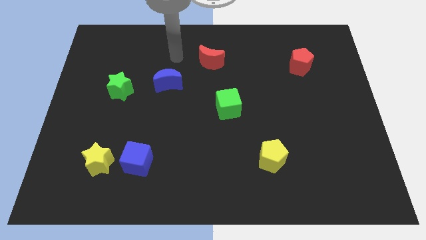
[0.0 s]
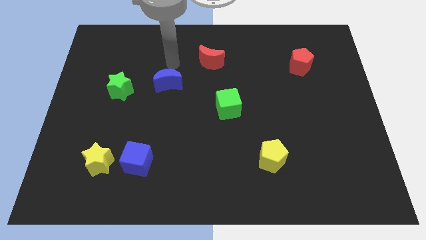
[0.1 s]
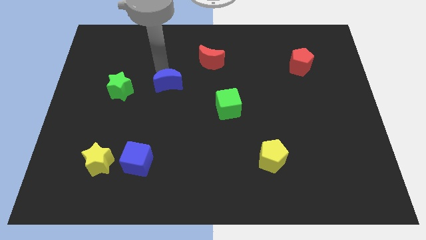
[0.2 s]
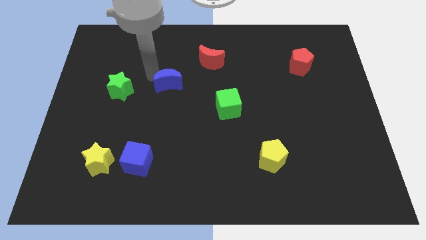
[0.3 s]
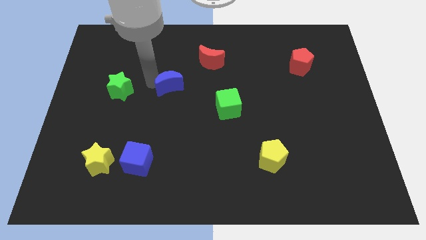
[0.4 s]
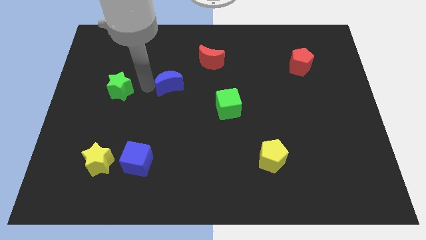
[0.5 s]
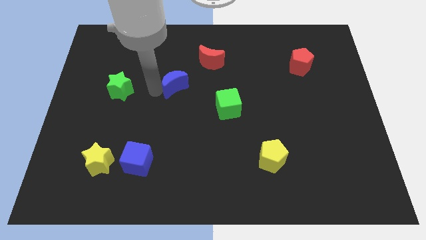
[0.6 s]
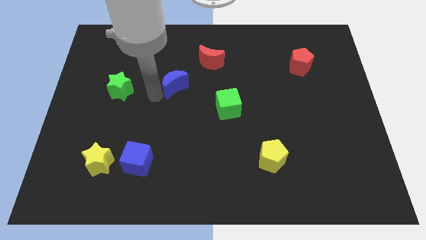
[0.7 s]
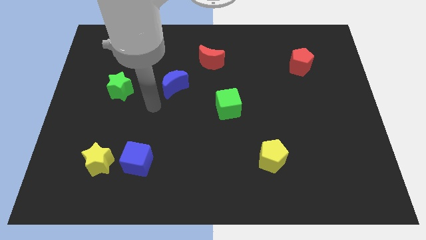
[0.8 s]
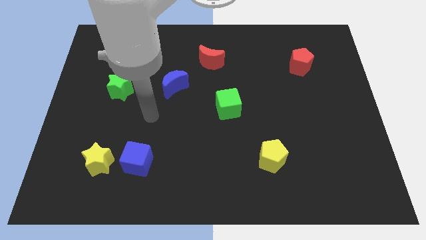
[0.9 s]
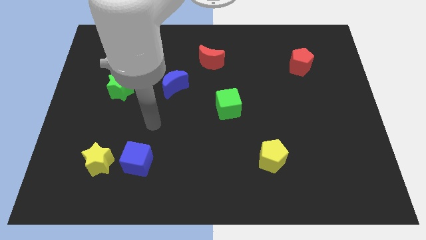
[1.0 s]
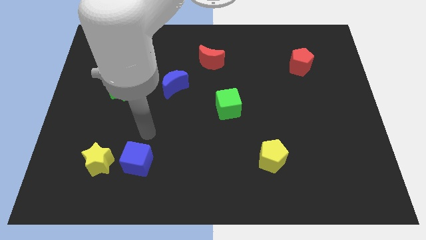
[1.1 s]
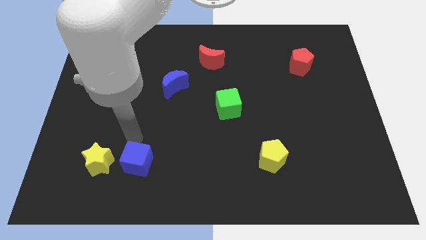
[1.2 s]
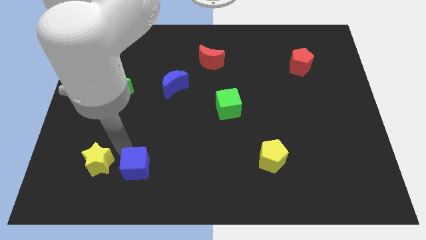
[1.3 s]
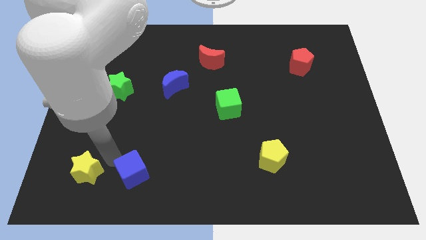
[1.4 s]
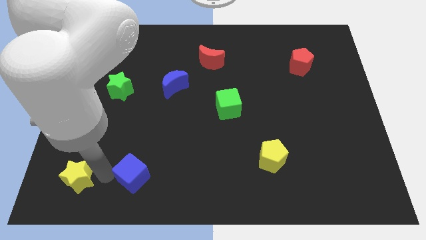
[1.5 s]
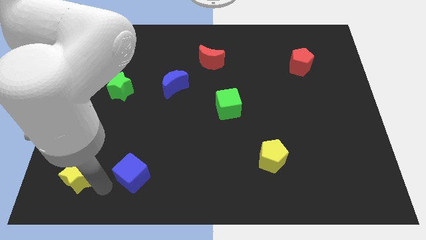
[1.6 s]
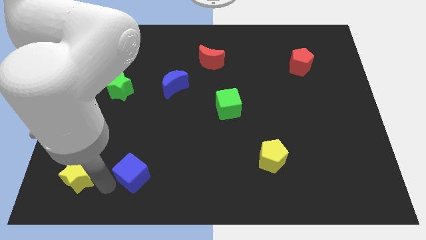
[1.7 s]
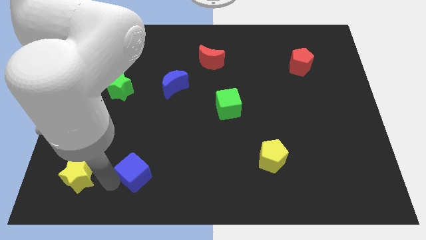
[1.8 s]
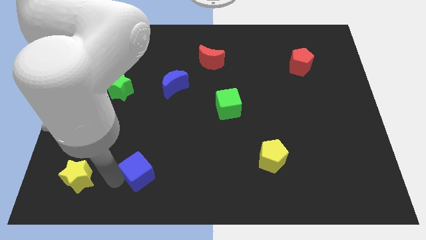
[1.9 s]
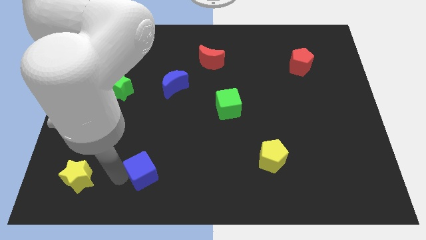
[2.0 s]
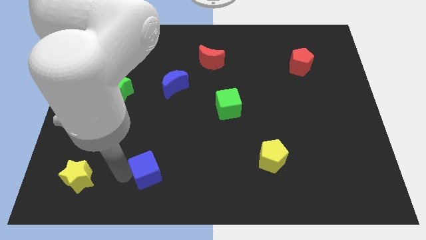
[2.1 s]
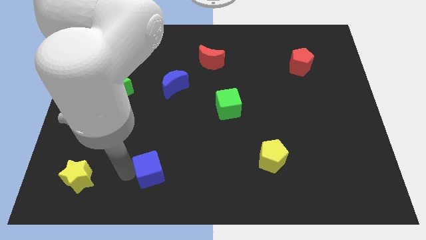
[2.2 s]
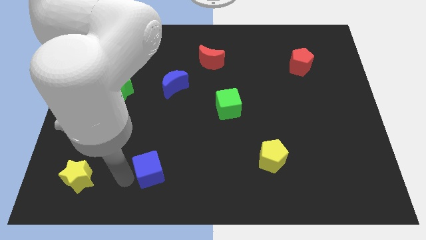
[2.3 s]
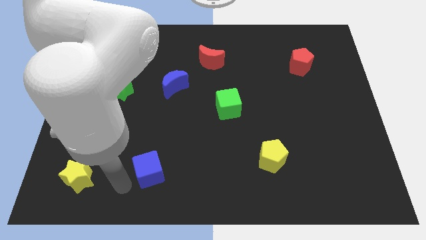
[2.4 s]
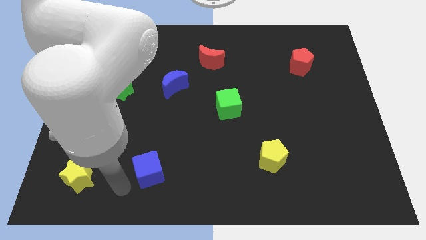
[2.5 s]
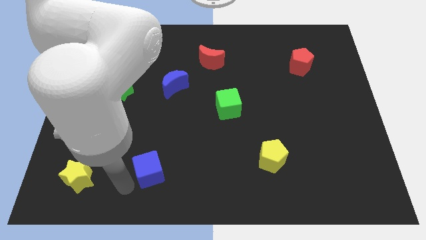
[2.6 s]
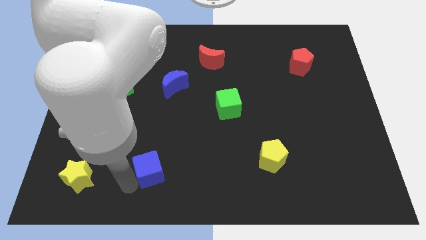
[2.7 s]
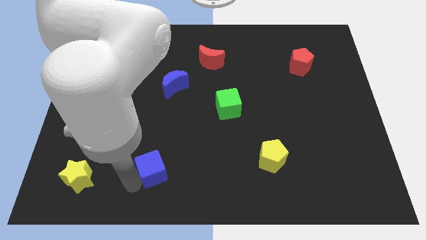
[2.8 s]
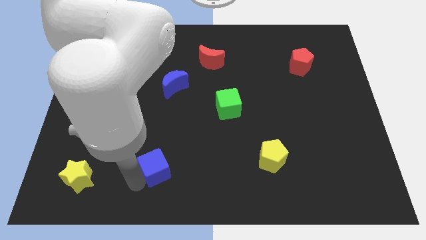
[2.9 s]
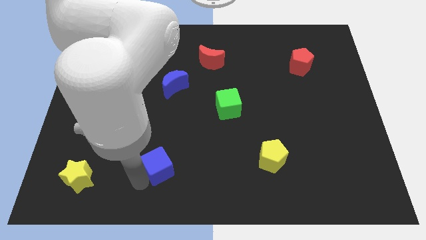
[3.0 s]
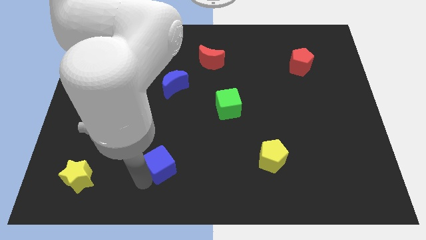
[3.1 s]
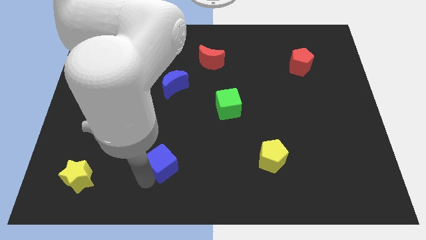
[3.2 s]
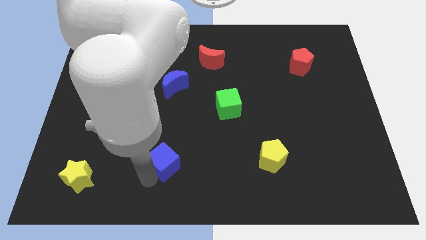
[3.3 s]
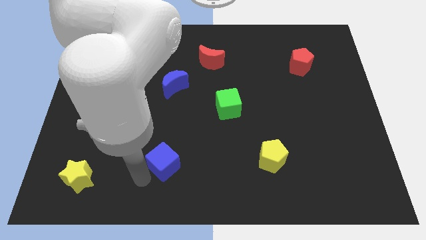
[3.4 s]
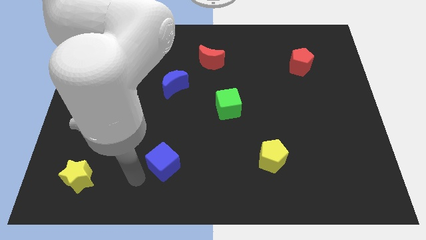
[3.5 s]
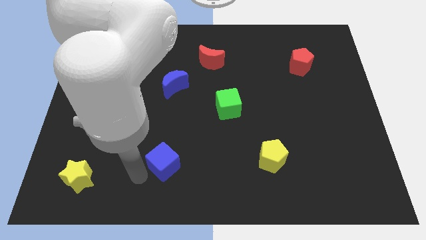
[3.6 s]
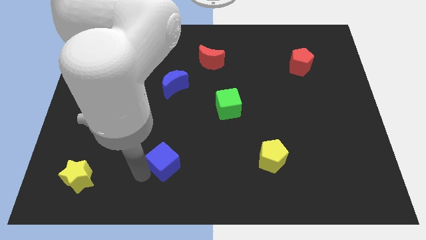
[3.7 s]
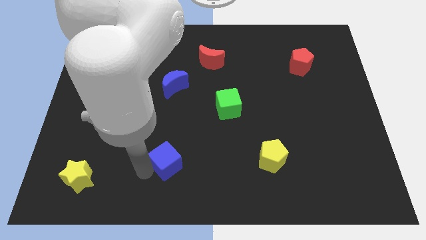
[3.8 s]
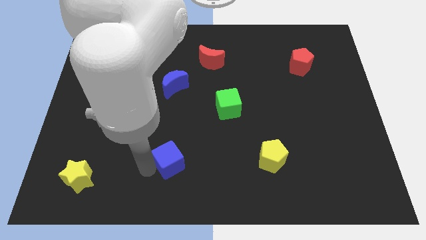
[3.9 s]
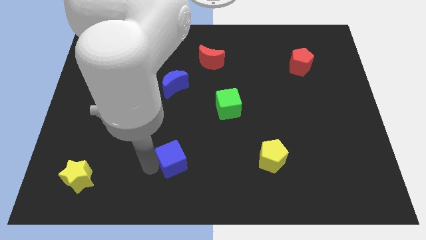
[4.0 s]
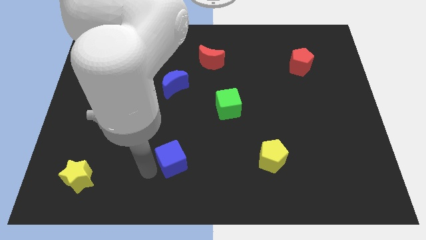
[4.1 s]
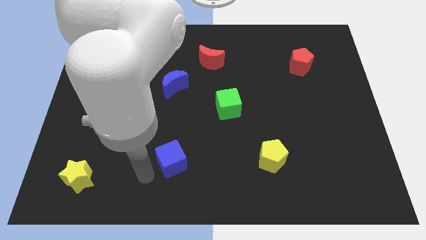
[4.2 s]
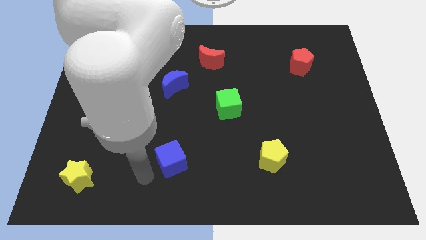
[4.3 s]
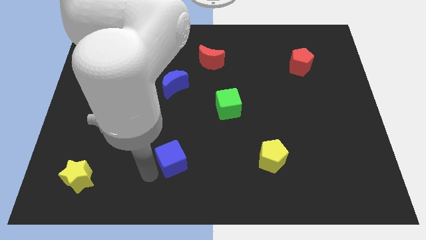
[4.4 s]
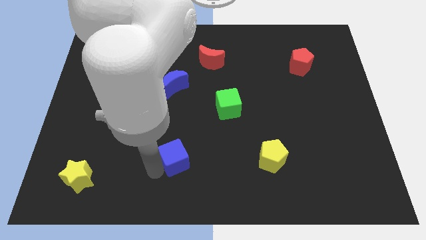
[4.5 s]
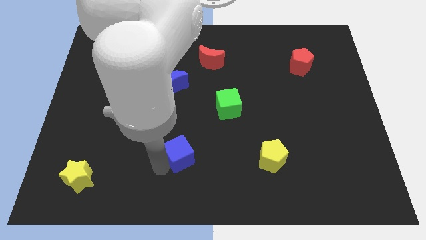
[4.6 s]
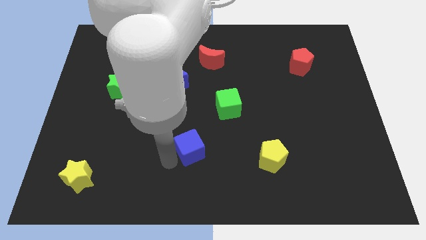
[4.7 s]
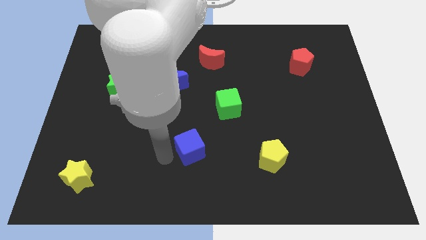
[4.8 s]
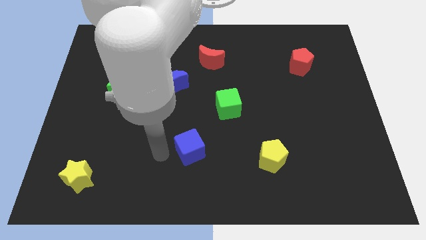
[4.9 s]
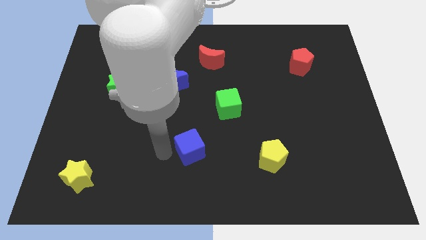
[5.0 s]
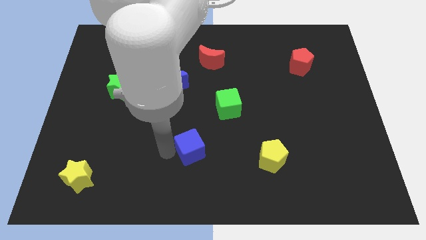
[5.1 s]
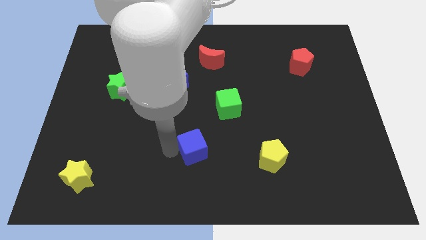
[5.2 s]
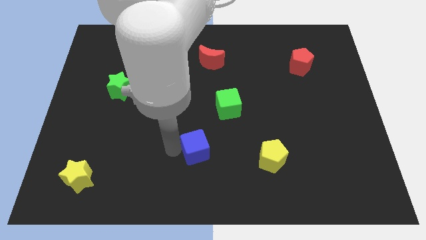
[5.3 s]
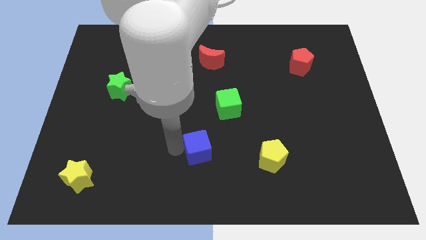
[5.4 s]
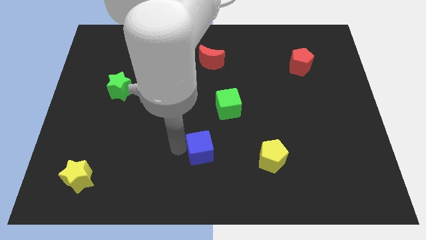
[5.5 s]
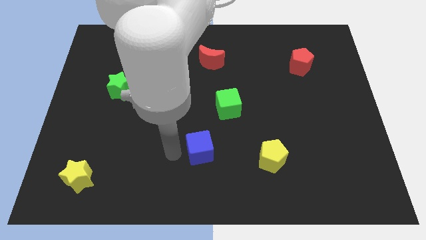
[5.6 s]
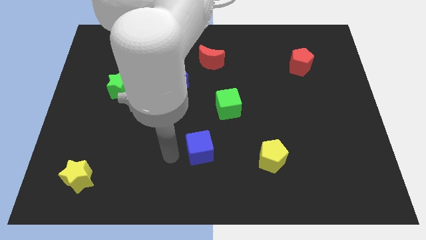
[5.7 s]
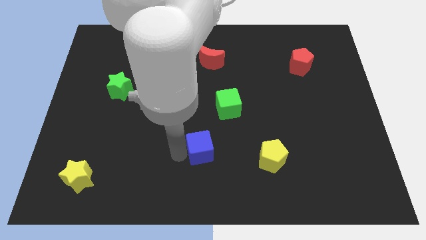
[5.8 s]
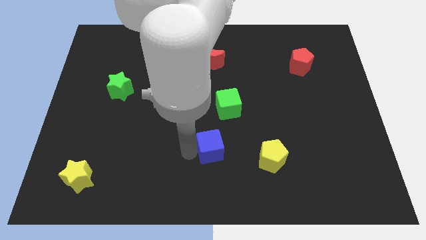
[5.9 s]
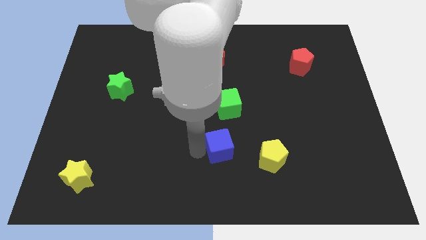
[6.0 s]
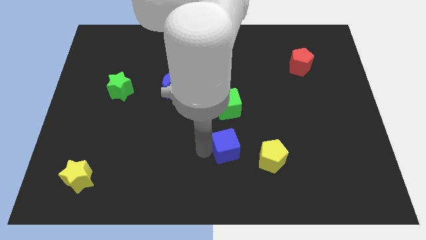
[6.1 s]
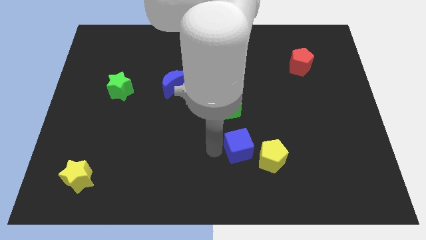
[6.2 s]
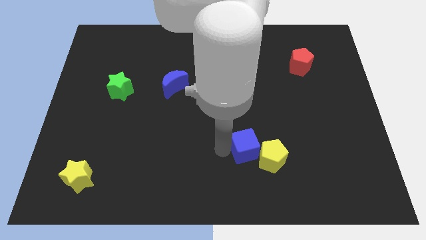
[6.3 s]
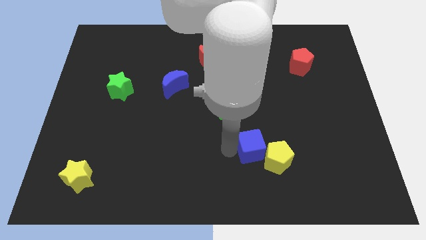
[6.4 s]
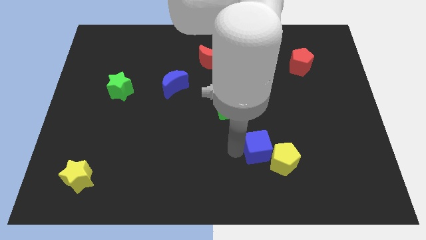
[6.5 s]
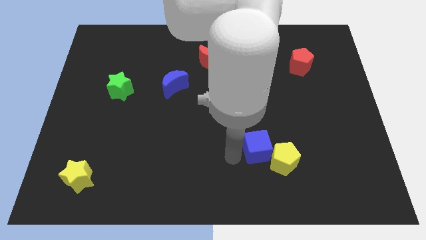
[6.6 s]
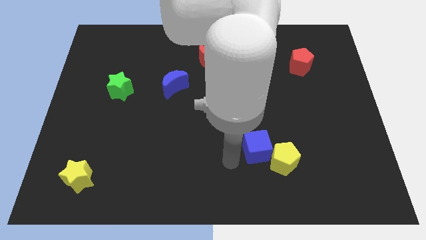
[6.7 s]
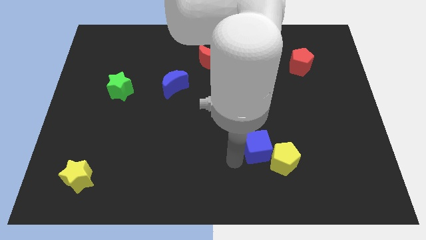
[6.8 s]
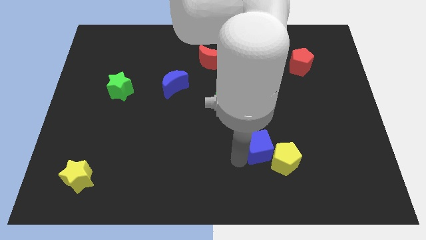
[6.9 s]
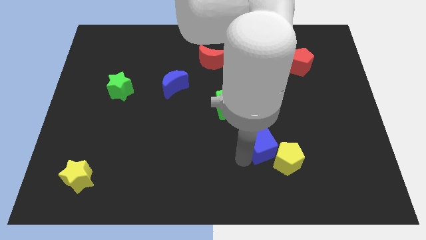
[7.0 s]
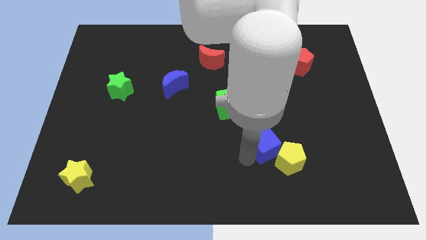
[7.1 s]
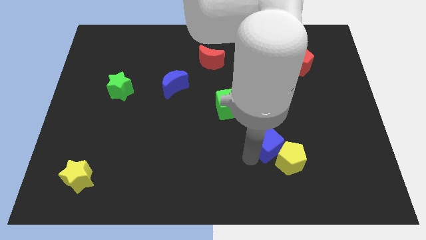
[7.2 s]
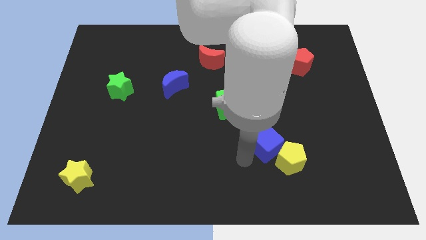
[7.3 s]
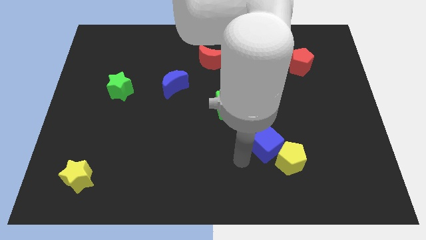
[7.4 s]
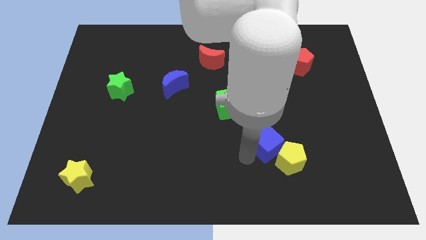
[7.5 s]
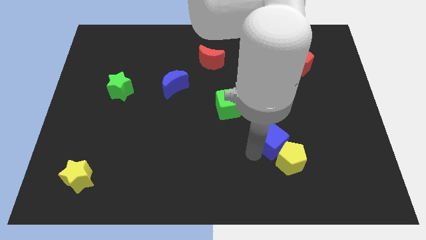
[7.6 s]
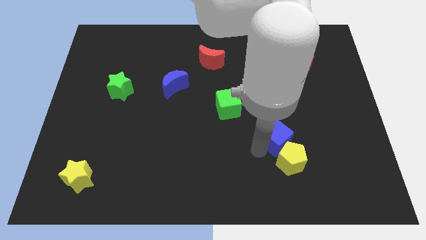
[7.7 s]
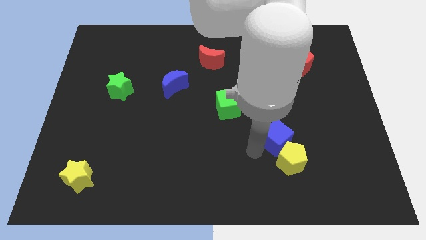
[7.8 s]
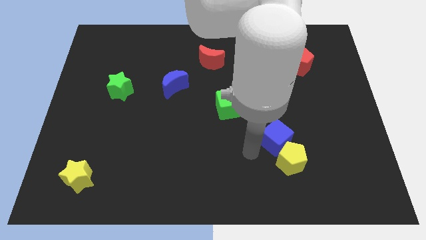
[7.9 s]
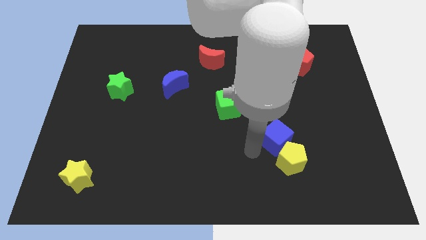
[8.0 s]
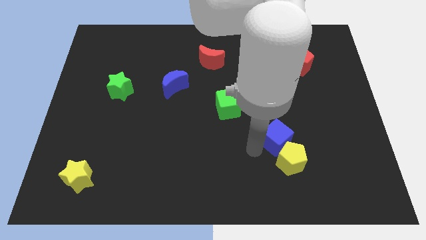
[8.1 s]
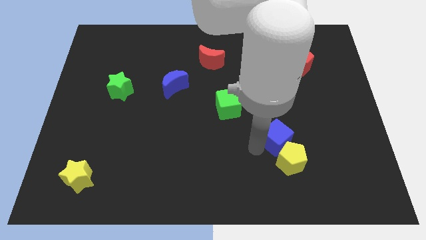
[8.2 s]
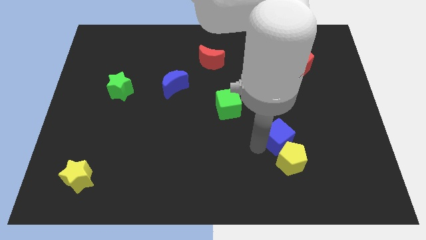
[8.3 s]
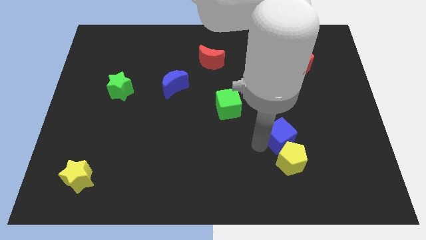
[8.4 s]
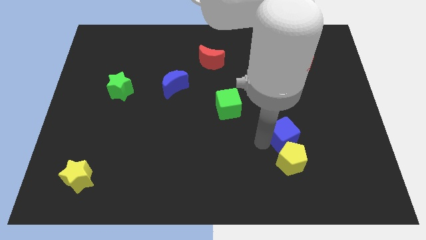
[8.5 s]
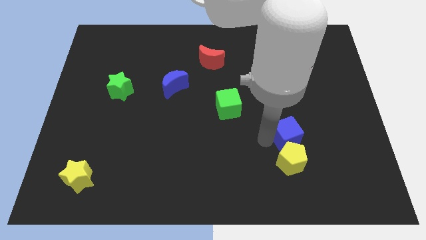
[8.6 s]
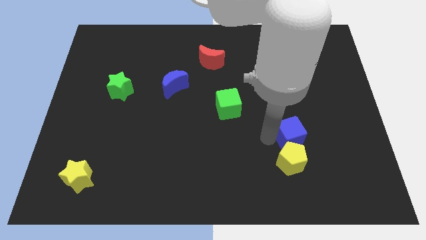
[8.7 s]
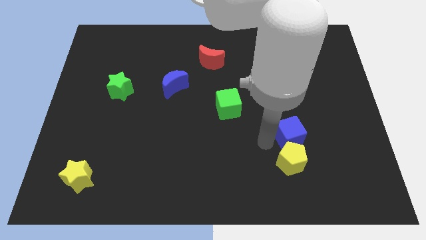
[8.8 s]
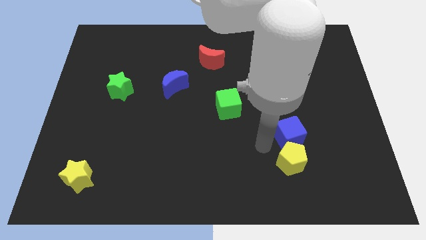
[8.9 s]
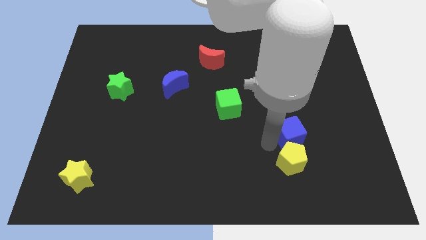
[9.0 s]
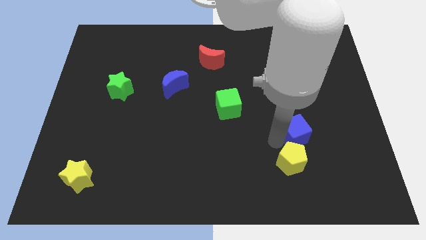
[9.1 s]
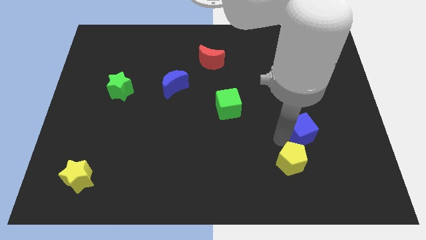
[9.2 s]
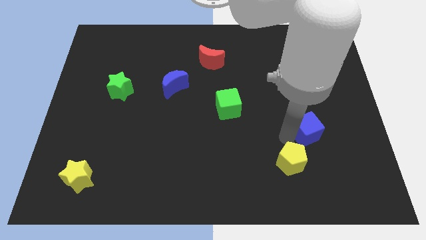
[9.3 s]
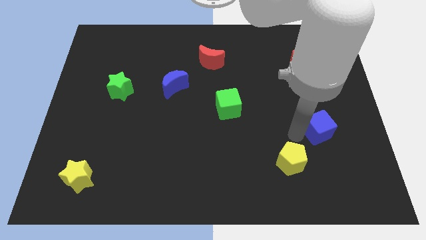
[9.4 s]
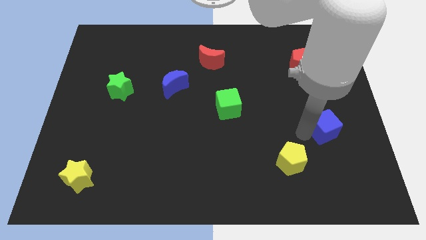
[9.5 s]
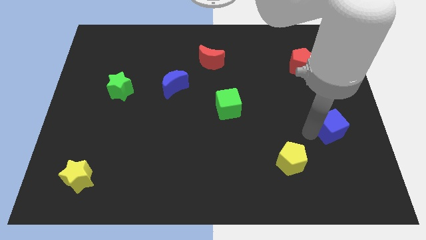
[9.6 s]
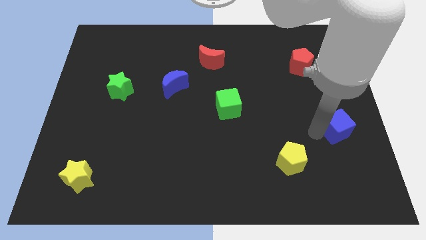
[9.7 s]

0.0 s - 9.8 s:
move the blue cube to the center right
